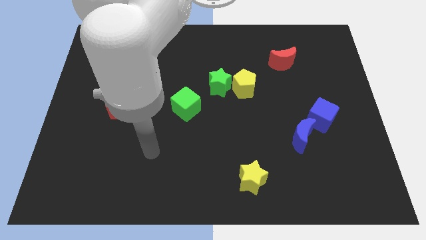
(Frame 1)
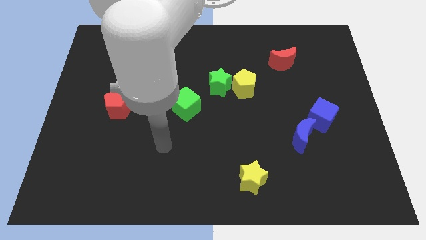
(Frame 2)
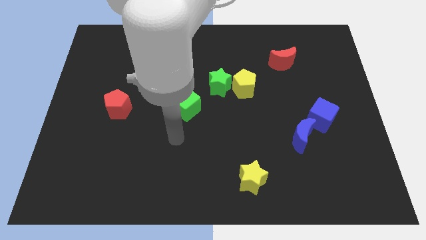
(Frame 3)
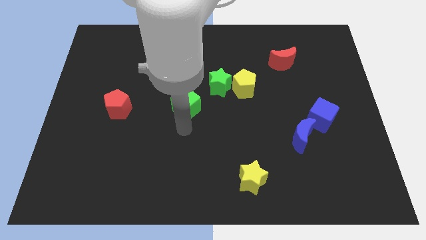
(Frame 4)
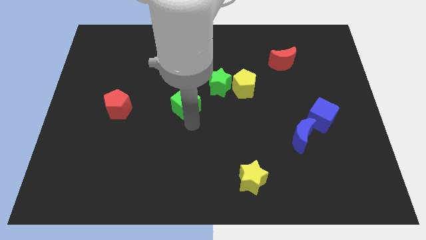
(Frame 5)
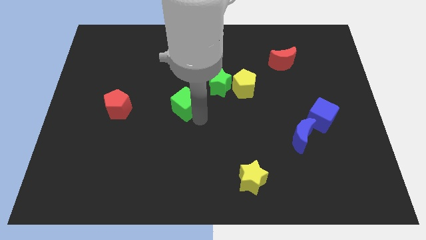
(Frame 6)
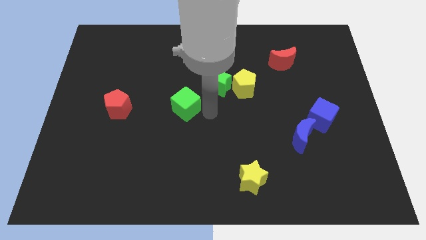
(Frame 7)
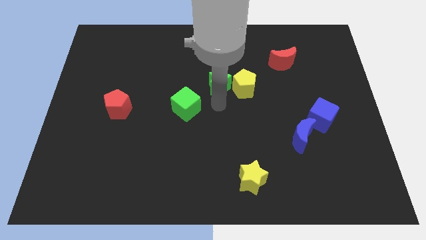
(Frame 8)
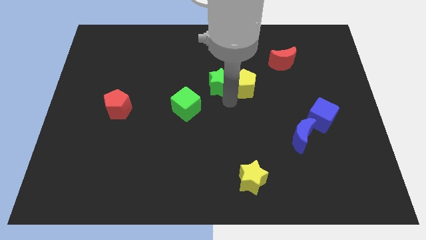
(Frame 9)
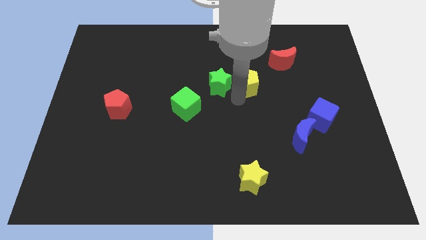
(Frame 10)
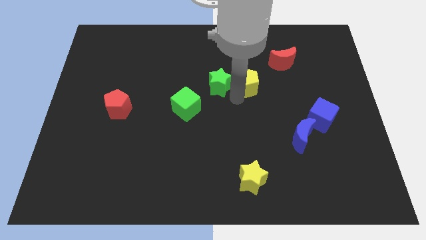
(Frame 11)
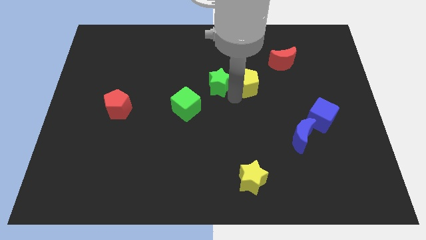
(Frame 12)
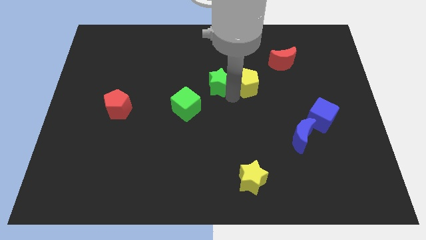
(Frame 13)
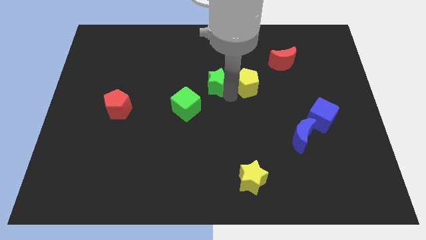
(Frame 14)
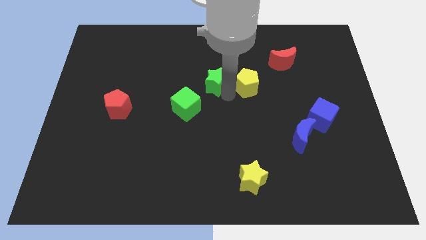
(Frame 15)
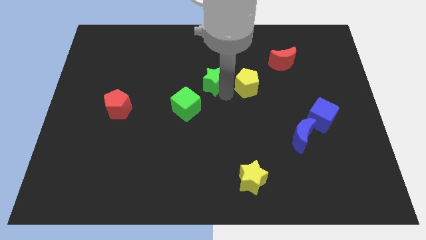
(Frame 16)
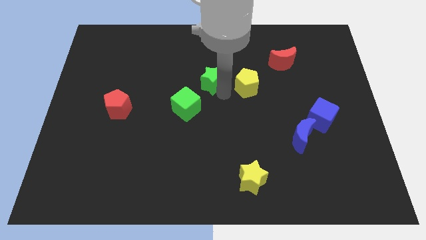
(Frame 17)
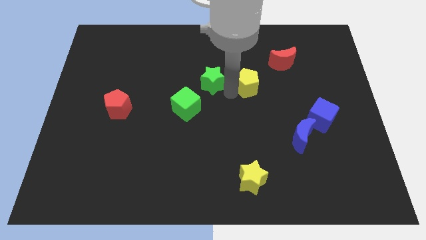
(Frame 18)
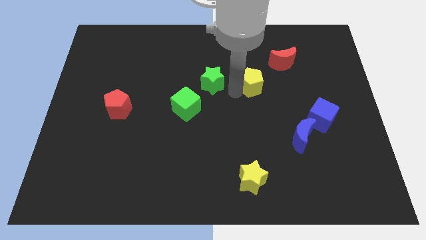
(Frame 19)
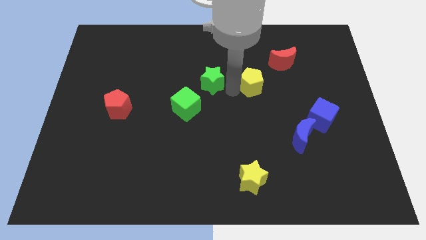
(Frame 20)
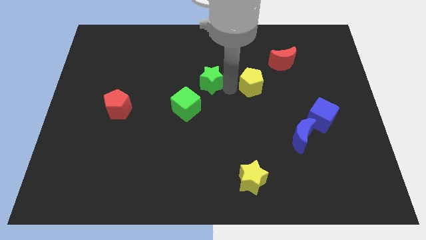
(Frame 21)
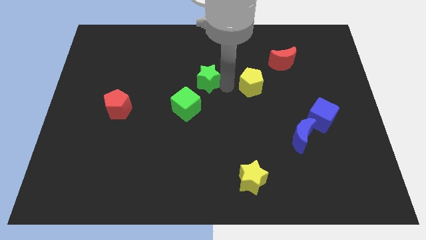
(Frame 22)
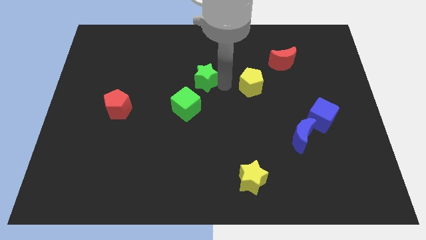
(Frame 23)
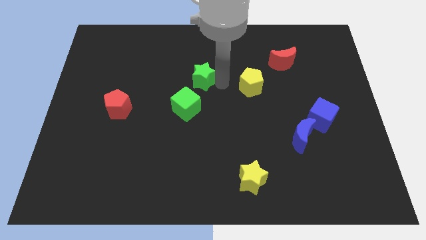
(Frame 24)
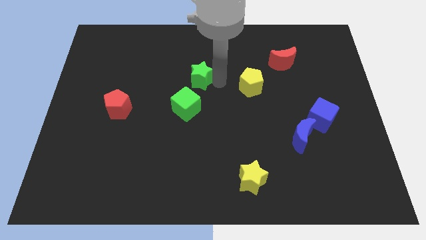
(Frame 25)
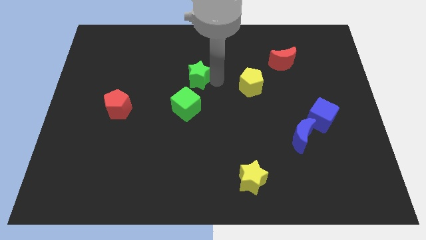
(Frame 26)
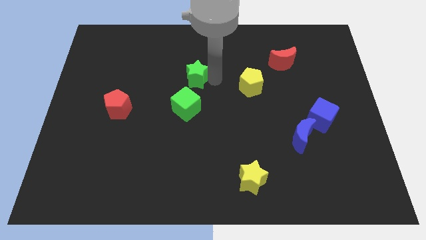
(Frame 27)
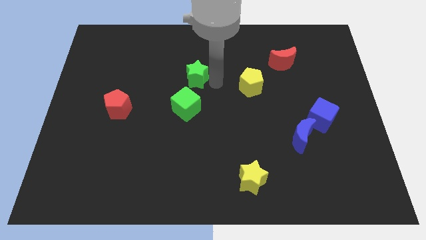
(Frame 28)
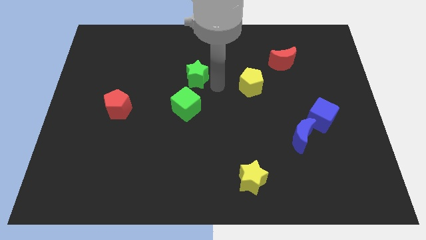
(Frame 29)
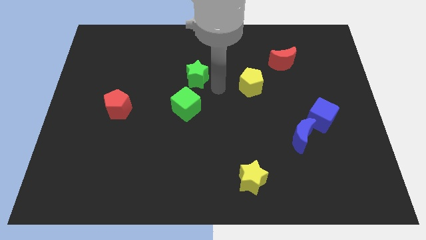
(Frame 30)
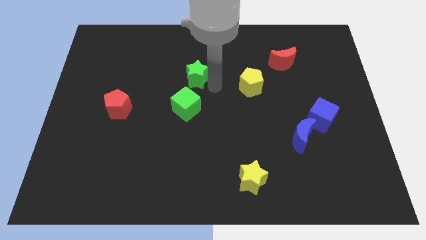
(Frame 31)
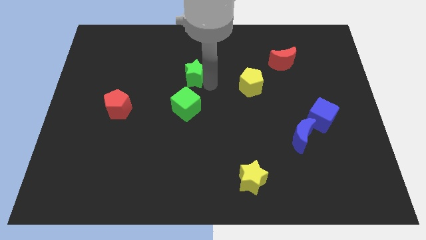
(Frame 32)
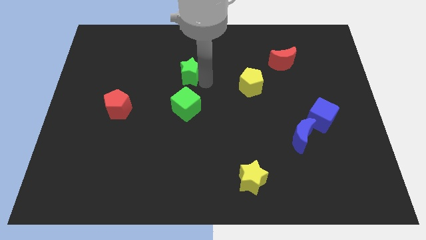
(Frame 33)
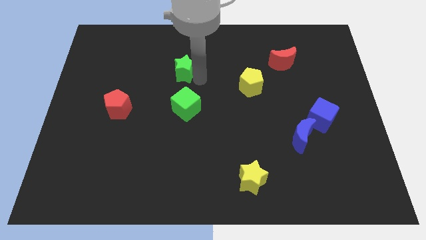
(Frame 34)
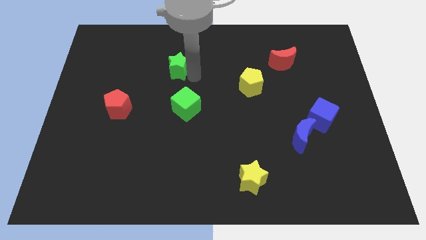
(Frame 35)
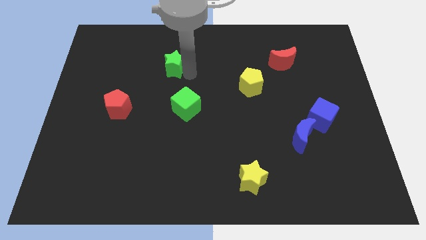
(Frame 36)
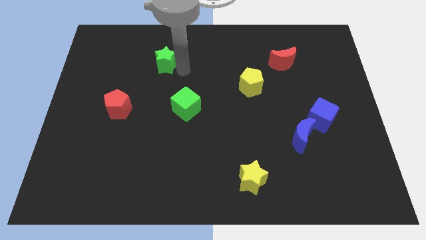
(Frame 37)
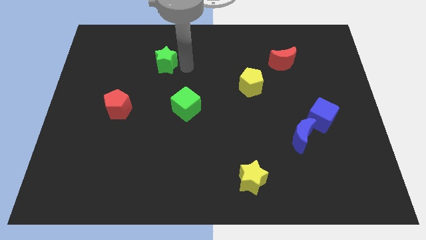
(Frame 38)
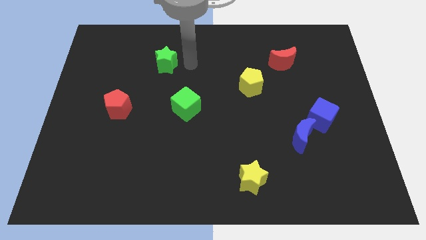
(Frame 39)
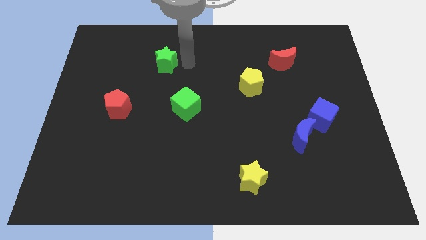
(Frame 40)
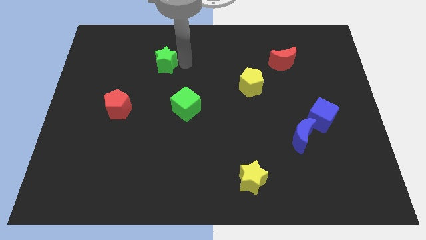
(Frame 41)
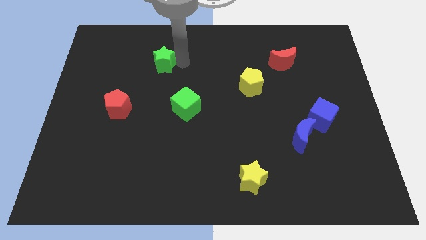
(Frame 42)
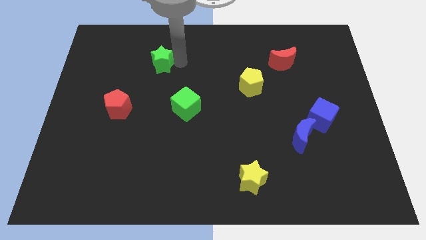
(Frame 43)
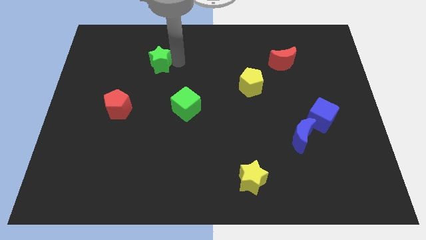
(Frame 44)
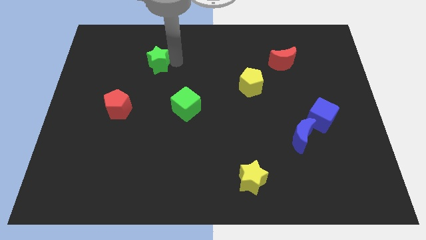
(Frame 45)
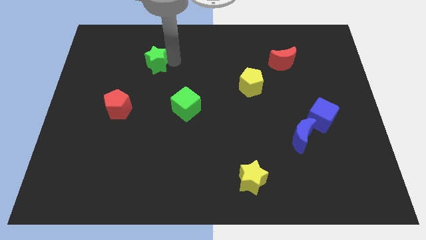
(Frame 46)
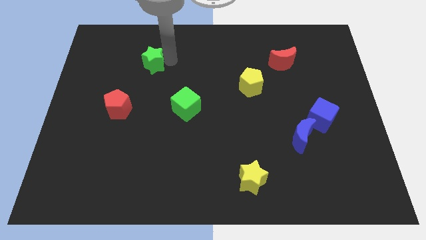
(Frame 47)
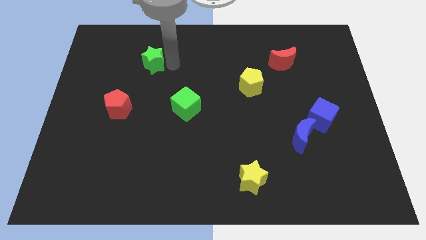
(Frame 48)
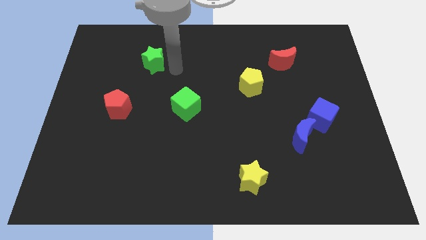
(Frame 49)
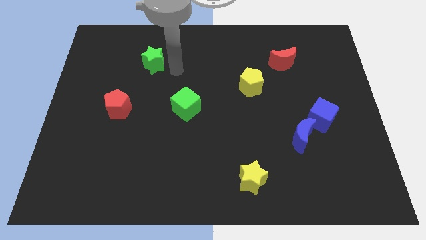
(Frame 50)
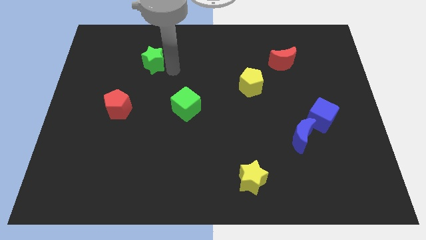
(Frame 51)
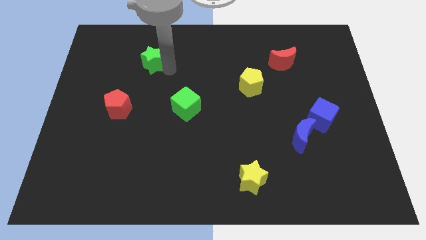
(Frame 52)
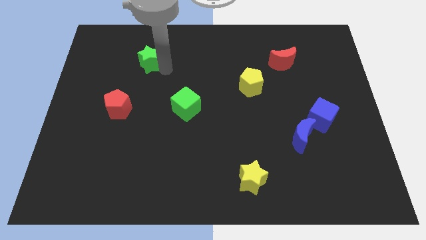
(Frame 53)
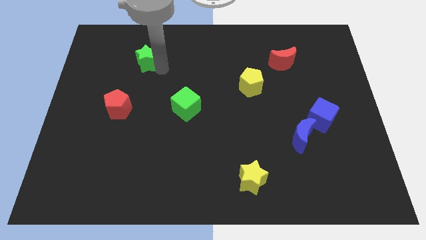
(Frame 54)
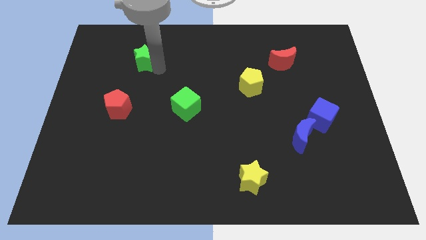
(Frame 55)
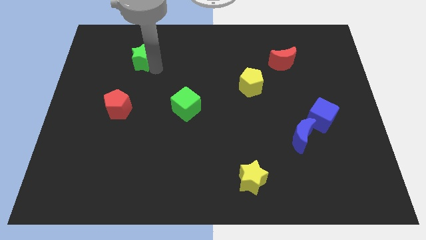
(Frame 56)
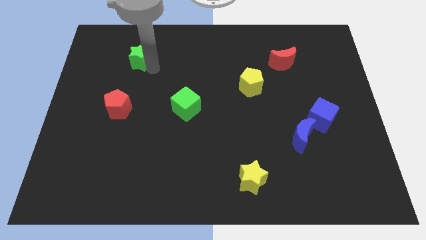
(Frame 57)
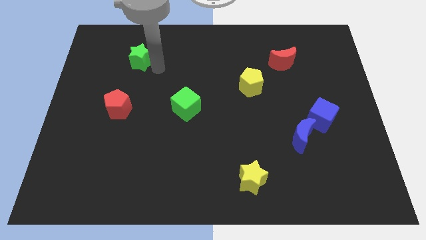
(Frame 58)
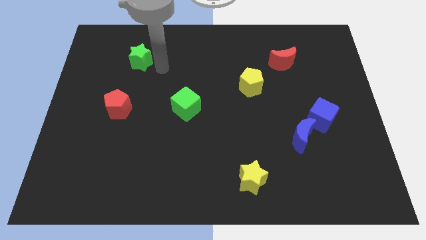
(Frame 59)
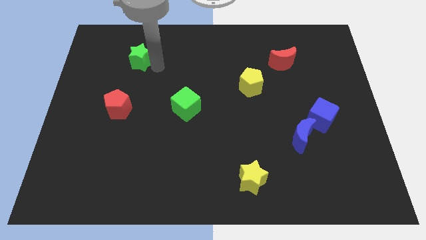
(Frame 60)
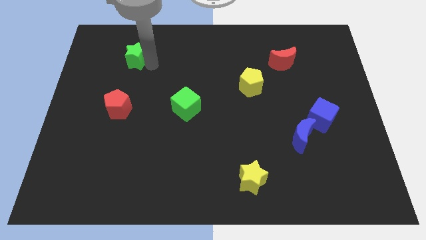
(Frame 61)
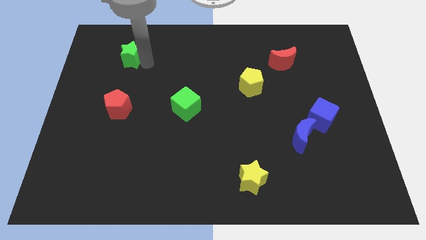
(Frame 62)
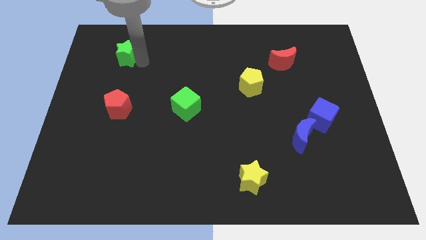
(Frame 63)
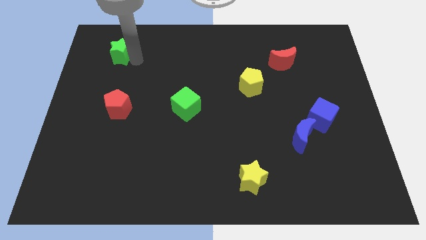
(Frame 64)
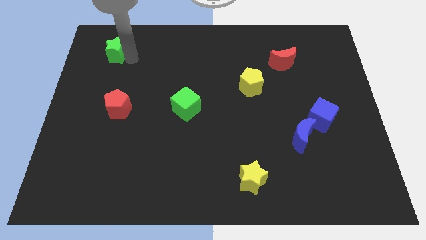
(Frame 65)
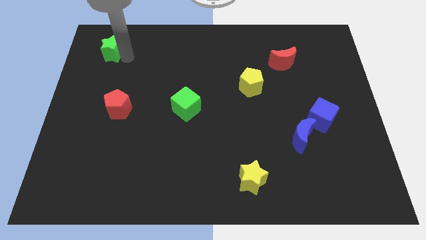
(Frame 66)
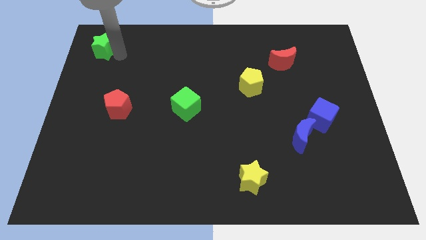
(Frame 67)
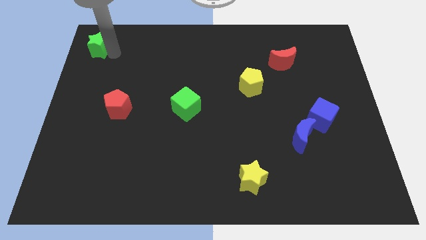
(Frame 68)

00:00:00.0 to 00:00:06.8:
slide the green star to the top left of the board
